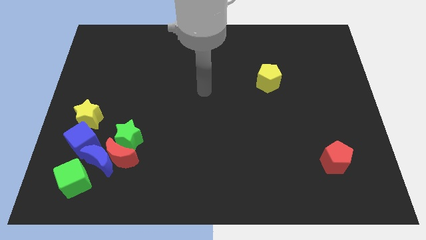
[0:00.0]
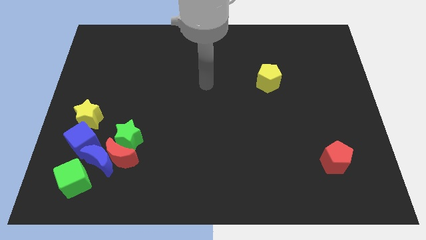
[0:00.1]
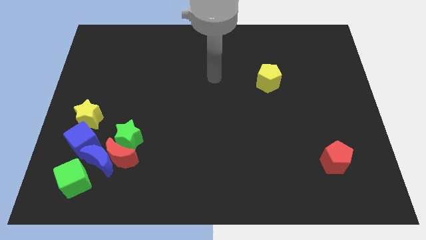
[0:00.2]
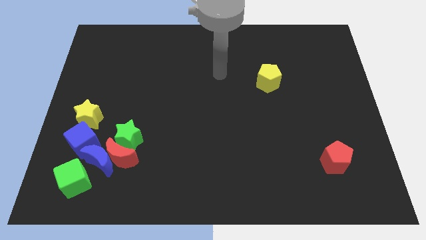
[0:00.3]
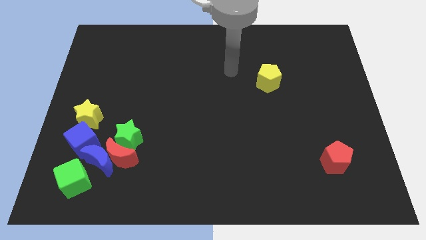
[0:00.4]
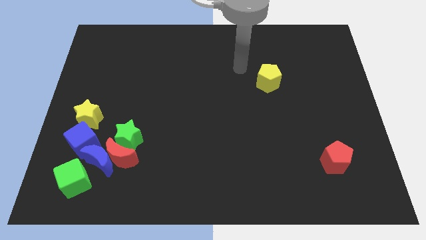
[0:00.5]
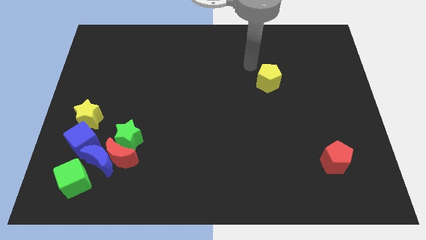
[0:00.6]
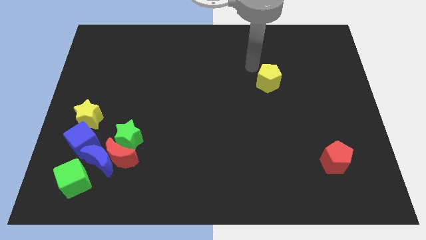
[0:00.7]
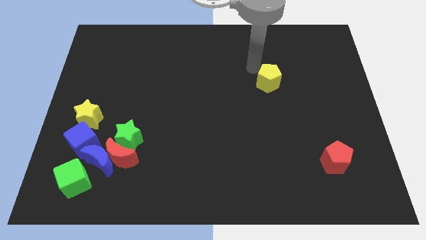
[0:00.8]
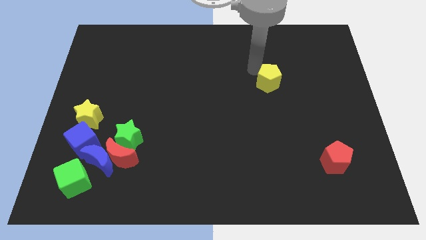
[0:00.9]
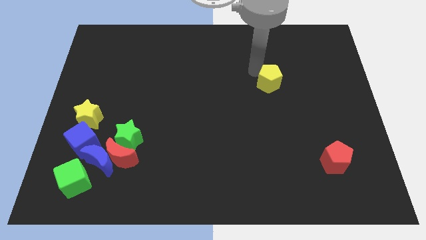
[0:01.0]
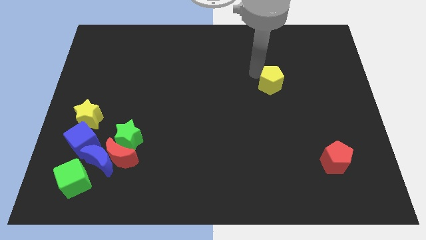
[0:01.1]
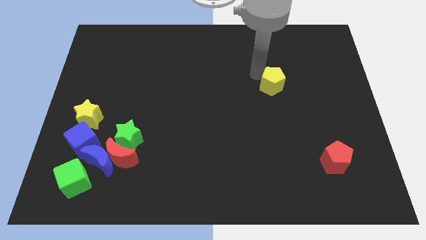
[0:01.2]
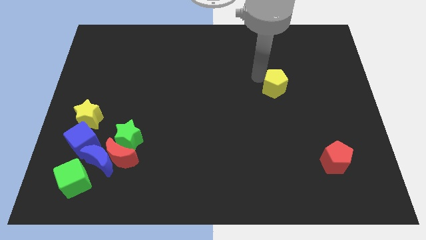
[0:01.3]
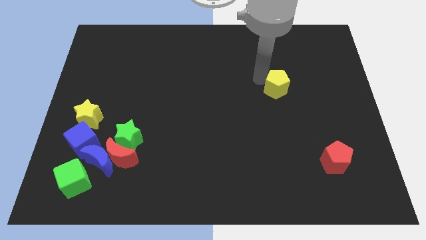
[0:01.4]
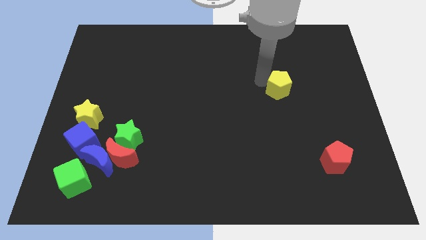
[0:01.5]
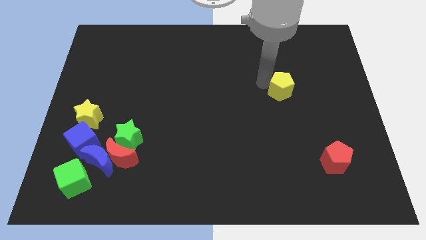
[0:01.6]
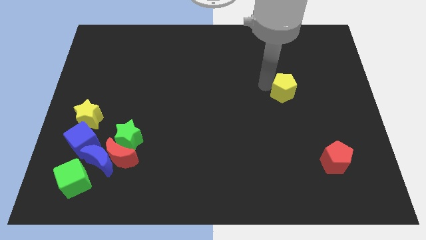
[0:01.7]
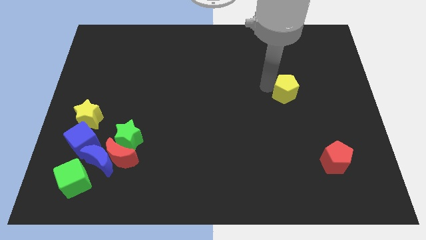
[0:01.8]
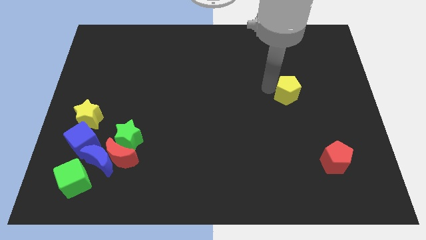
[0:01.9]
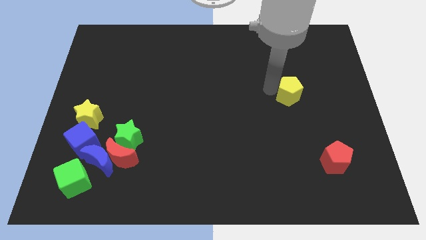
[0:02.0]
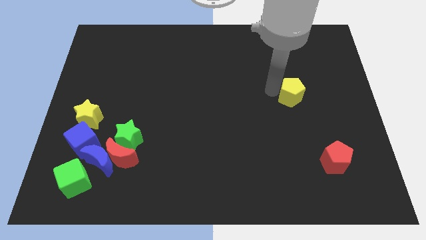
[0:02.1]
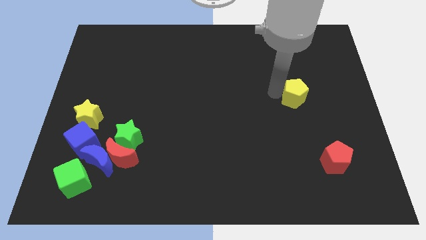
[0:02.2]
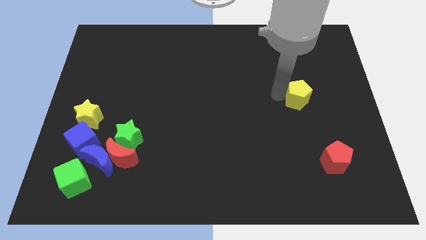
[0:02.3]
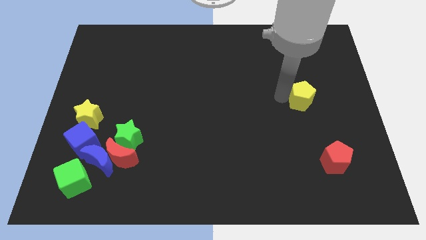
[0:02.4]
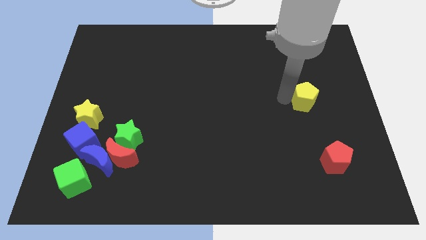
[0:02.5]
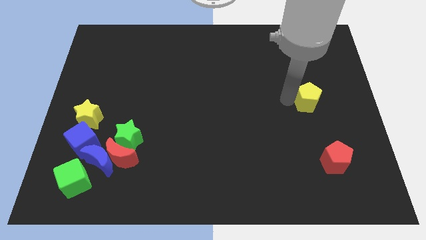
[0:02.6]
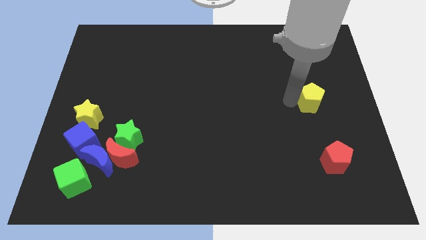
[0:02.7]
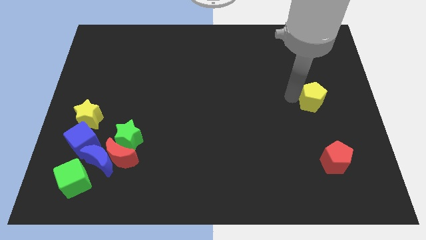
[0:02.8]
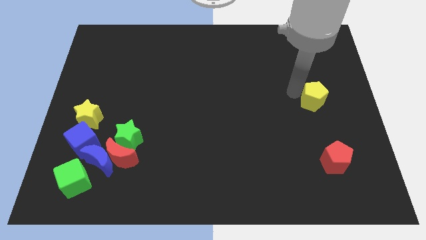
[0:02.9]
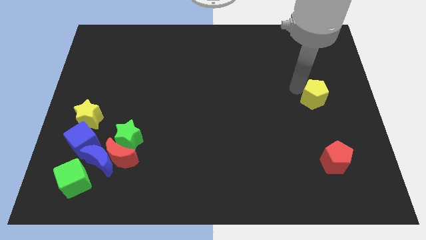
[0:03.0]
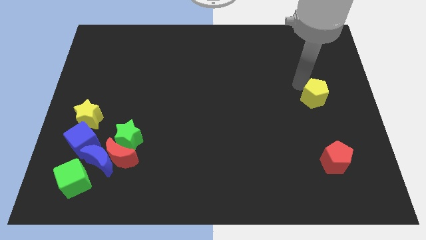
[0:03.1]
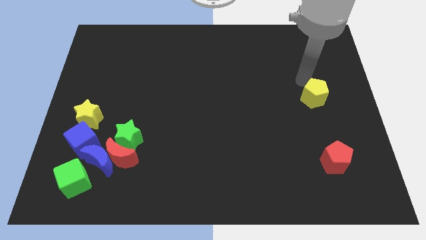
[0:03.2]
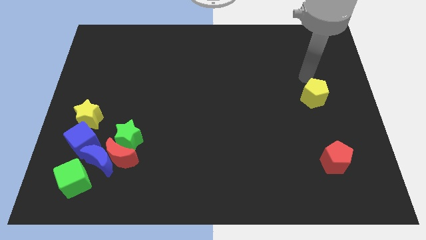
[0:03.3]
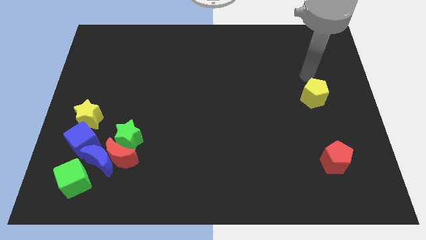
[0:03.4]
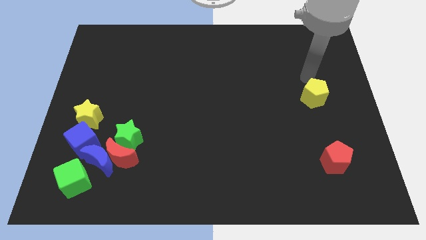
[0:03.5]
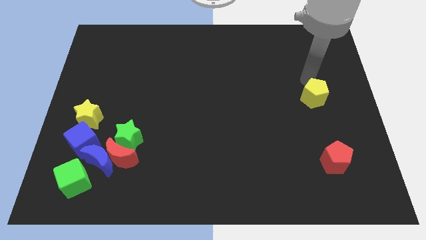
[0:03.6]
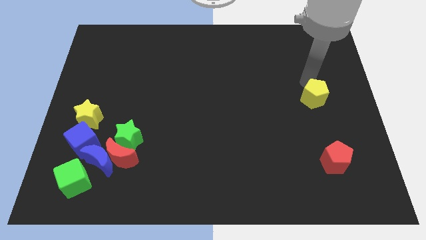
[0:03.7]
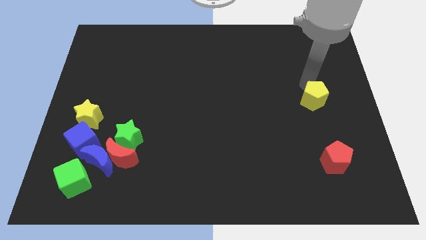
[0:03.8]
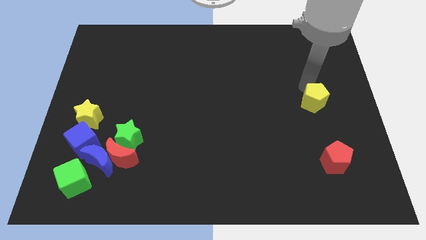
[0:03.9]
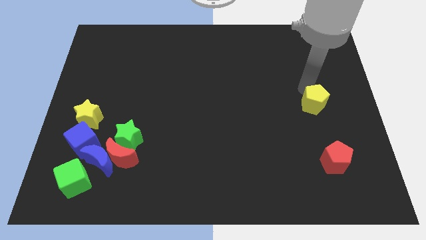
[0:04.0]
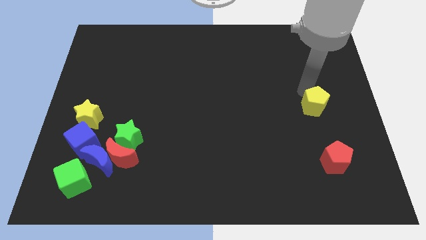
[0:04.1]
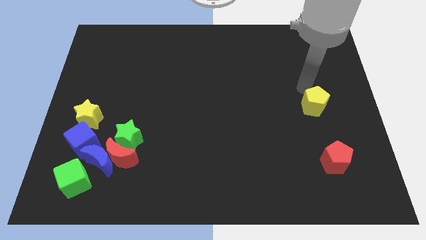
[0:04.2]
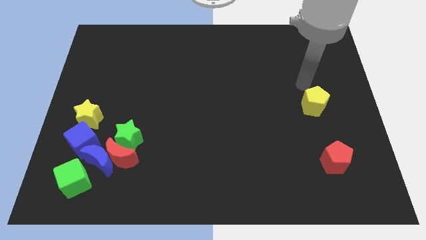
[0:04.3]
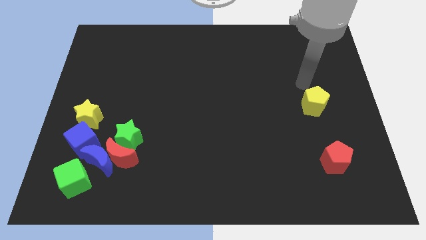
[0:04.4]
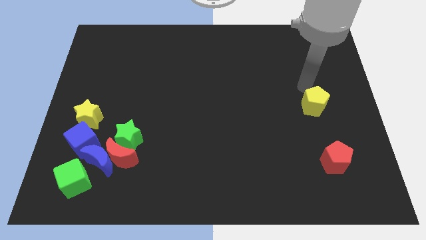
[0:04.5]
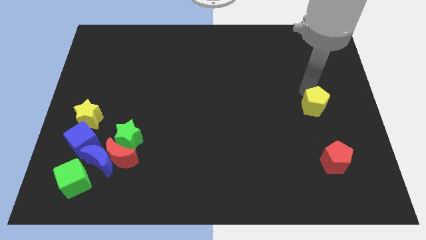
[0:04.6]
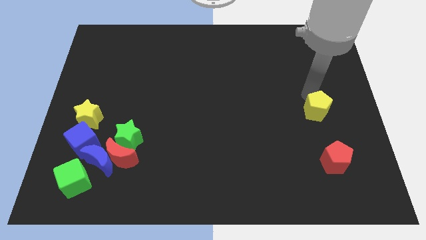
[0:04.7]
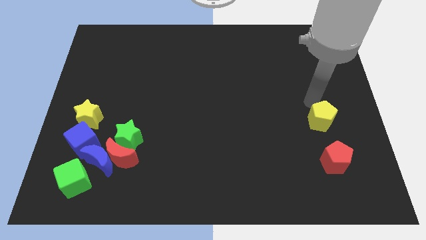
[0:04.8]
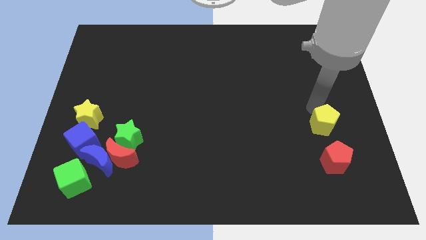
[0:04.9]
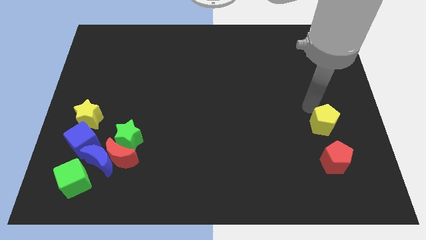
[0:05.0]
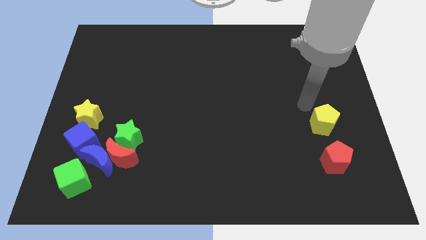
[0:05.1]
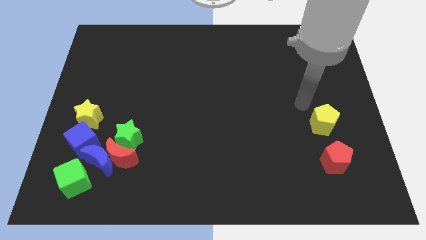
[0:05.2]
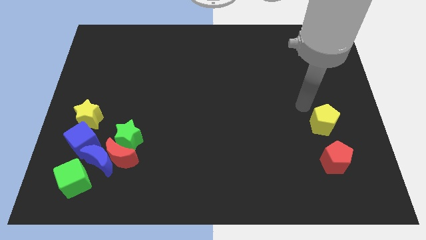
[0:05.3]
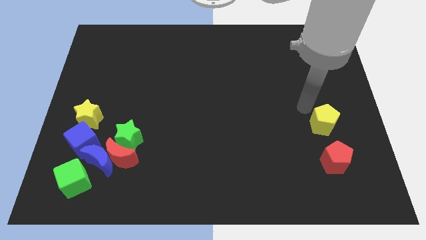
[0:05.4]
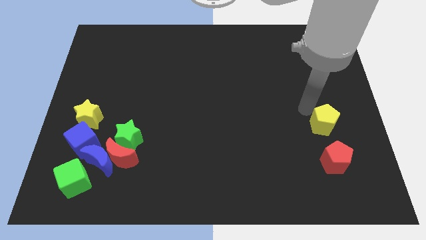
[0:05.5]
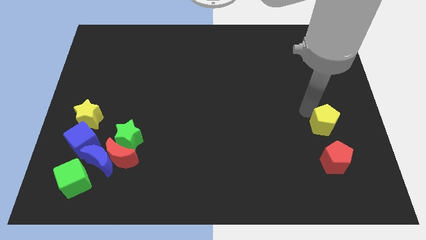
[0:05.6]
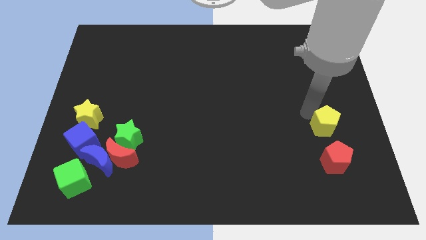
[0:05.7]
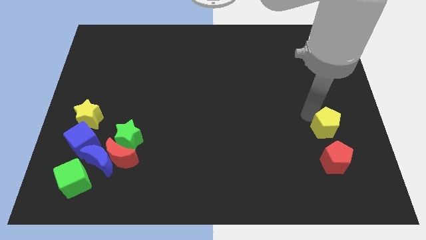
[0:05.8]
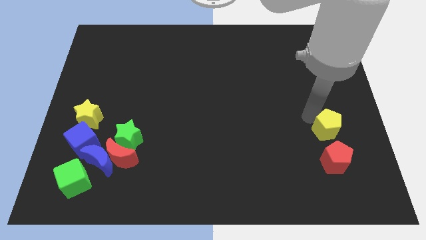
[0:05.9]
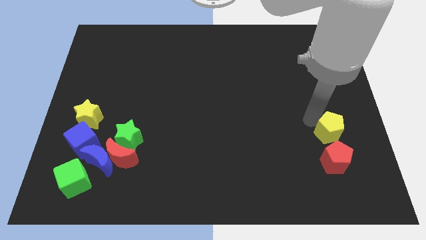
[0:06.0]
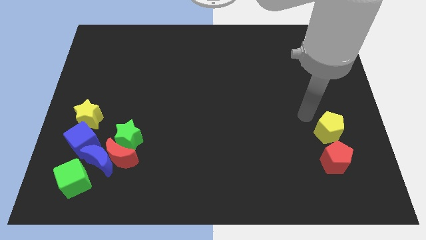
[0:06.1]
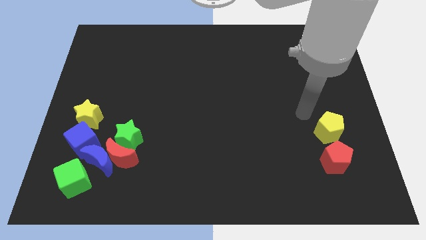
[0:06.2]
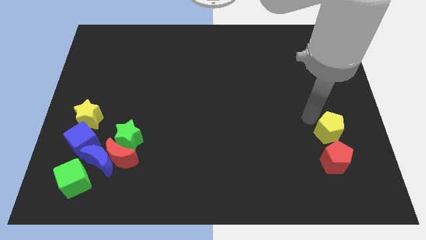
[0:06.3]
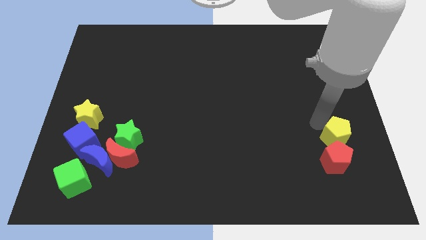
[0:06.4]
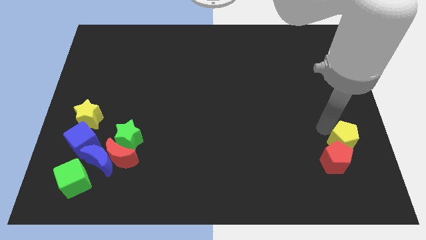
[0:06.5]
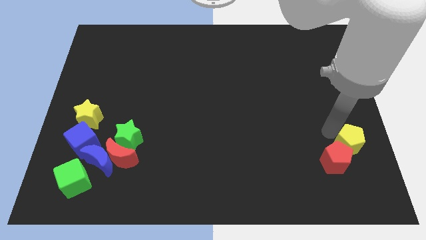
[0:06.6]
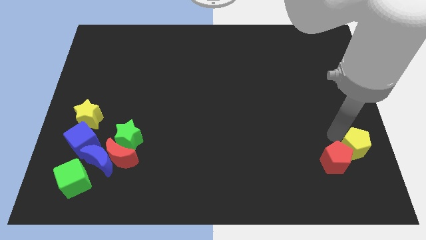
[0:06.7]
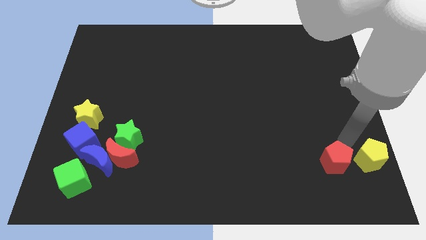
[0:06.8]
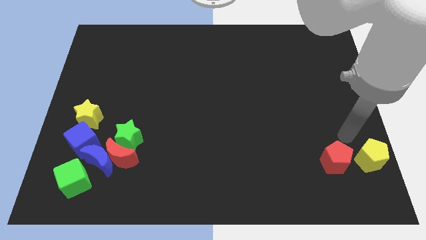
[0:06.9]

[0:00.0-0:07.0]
slide the yellow pentagon to the lower right corner
